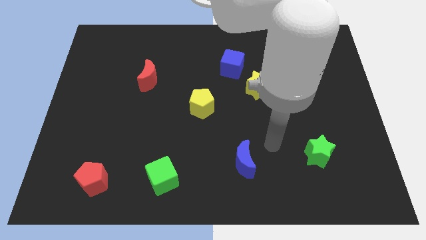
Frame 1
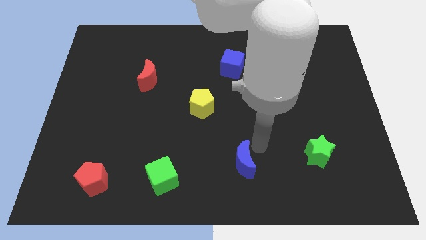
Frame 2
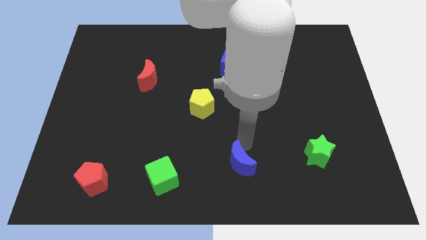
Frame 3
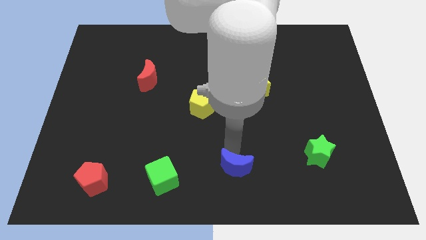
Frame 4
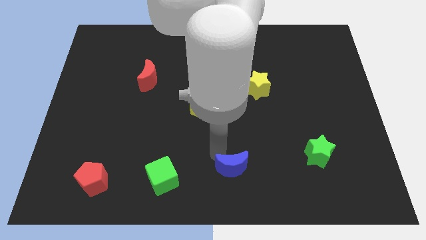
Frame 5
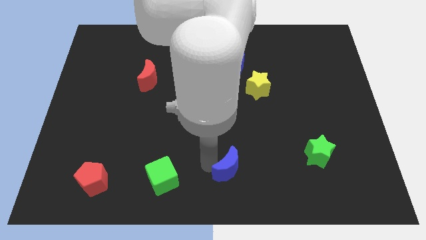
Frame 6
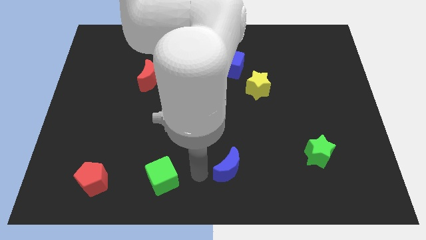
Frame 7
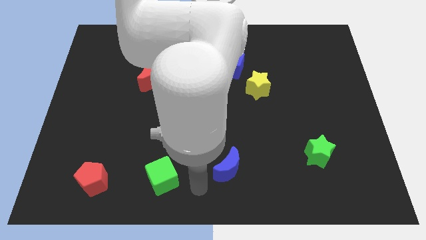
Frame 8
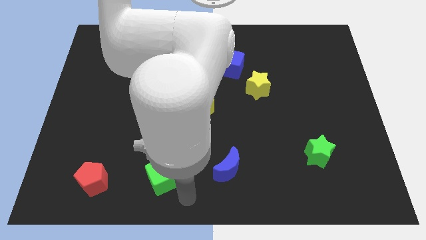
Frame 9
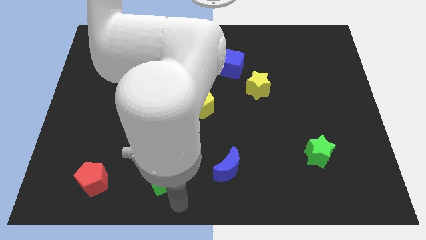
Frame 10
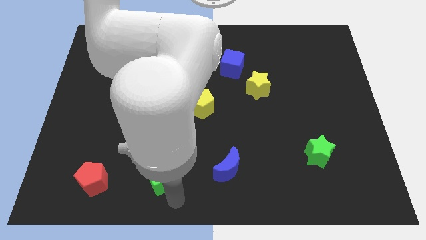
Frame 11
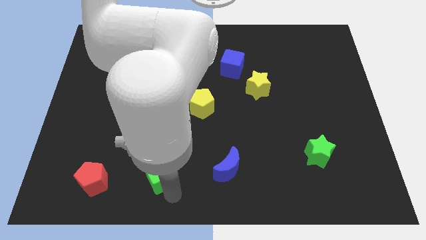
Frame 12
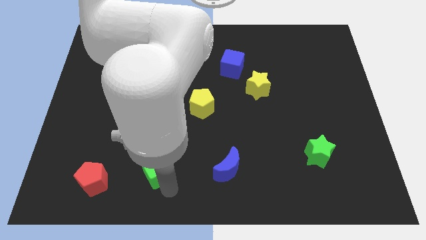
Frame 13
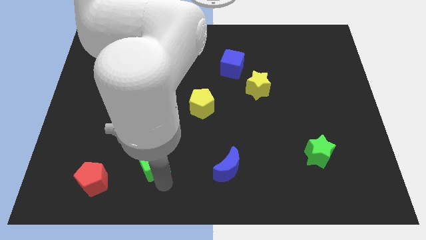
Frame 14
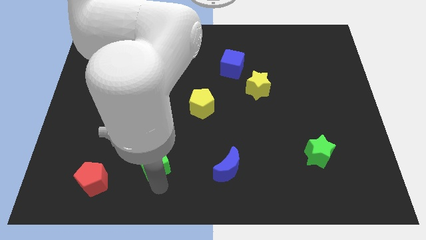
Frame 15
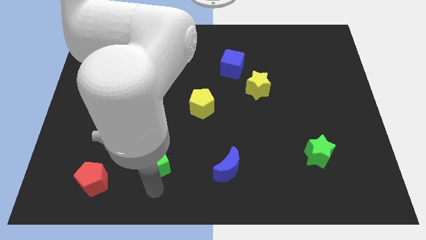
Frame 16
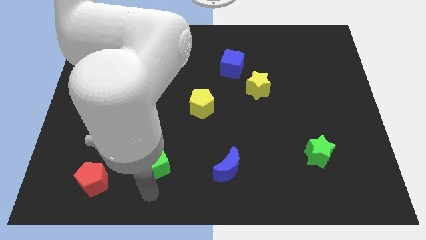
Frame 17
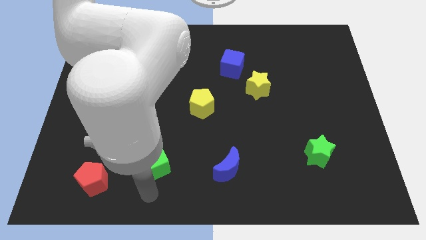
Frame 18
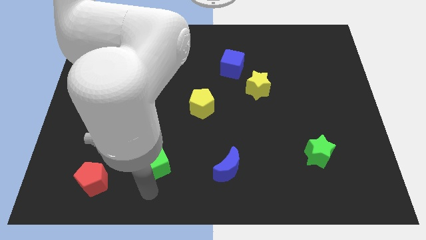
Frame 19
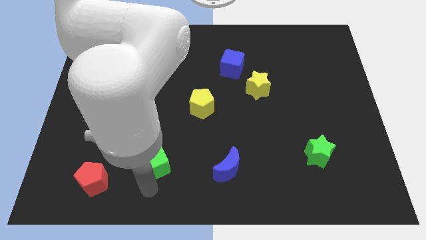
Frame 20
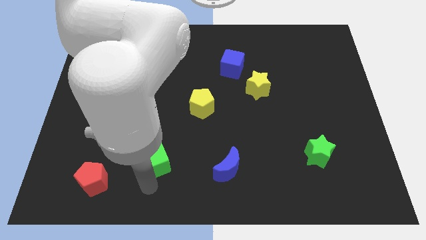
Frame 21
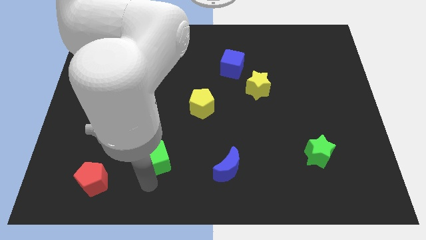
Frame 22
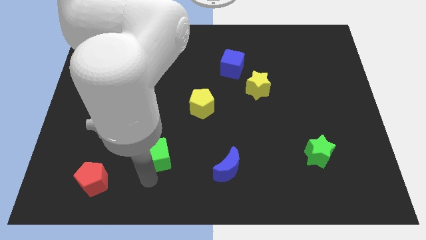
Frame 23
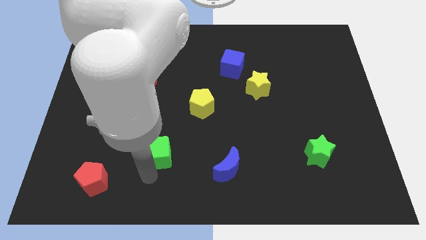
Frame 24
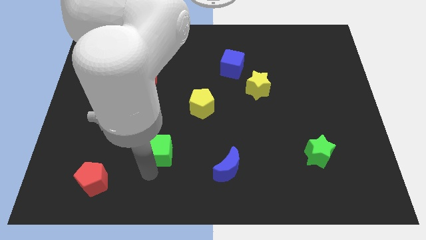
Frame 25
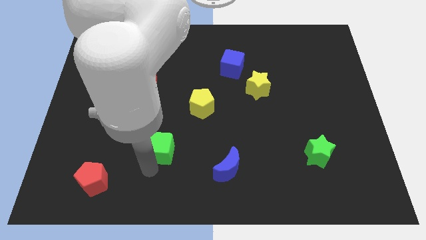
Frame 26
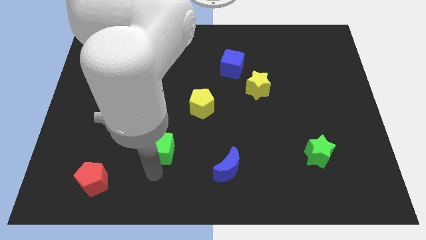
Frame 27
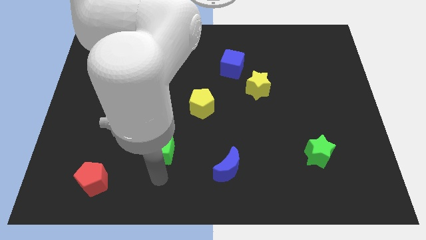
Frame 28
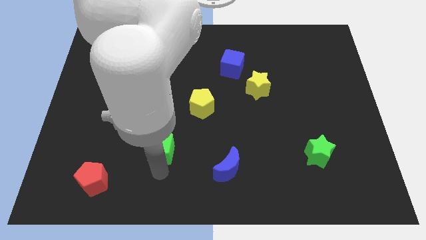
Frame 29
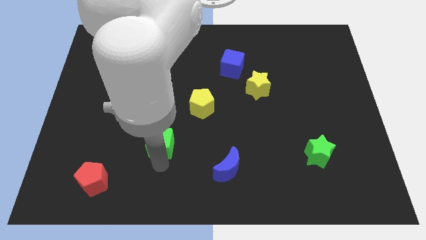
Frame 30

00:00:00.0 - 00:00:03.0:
slide the green cube slightly upwards

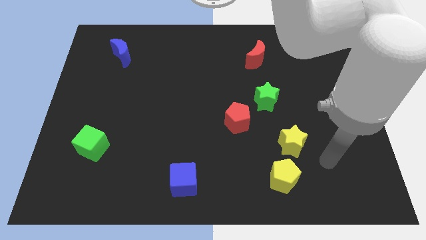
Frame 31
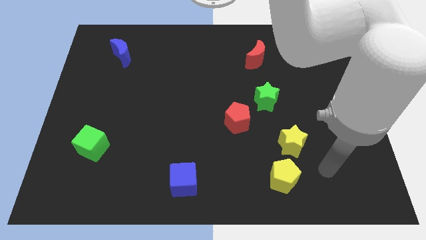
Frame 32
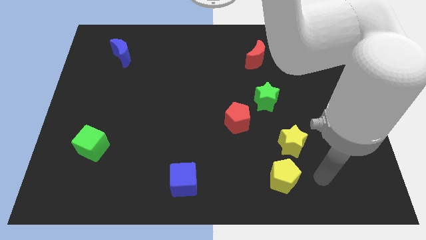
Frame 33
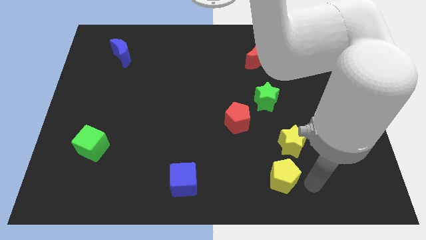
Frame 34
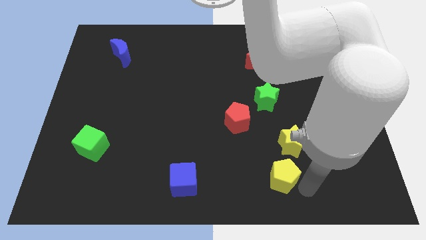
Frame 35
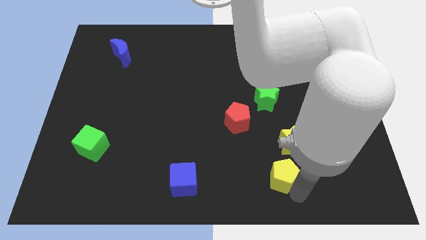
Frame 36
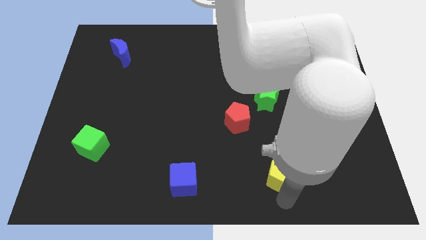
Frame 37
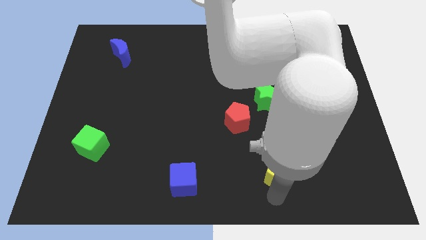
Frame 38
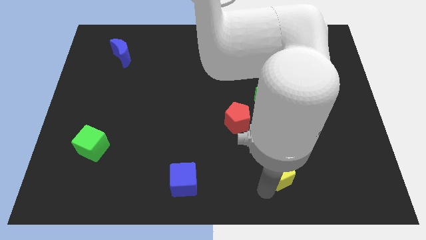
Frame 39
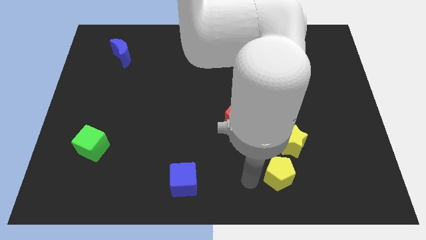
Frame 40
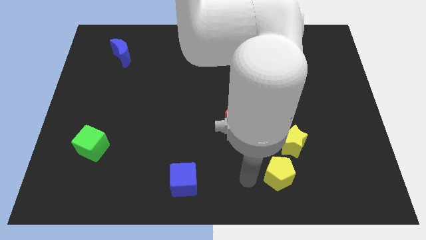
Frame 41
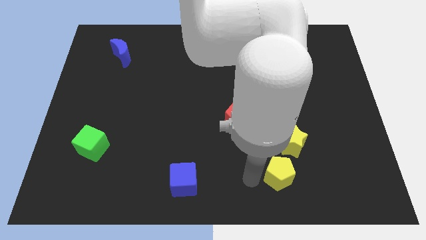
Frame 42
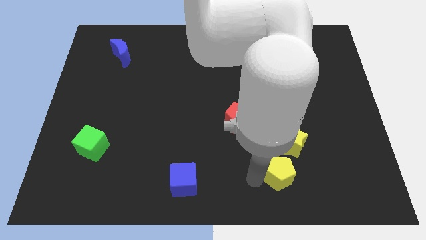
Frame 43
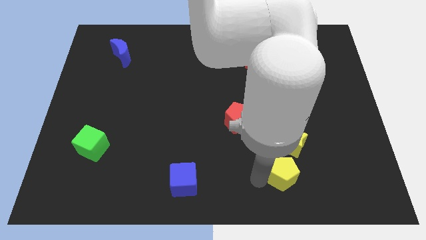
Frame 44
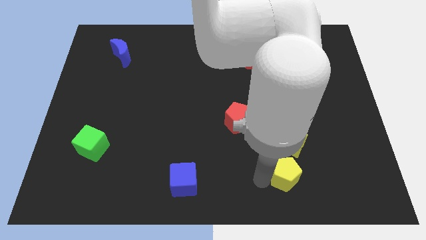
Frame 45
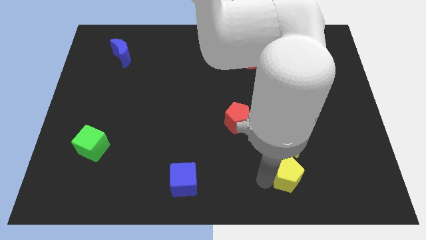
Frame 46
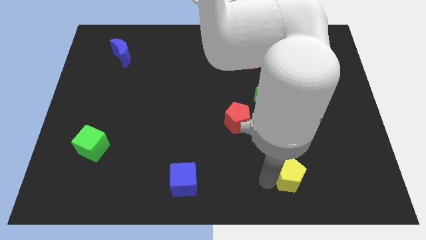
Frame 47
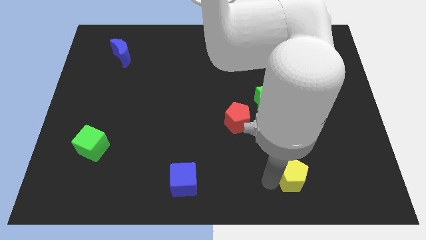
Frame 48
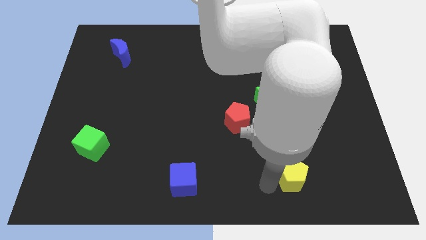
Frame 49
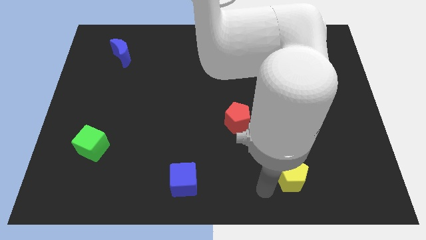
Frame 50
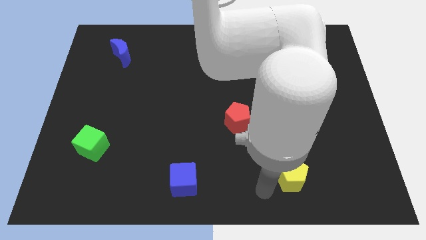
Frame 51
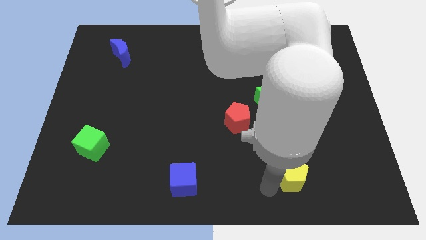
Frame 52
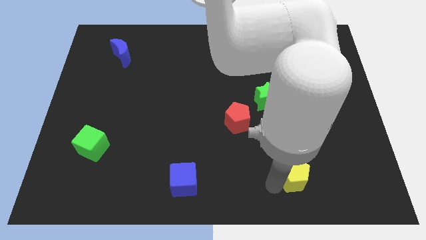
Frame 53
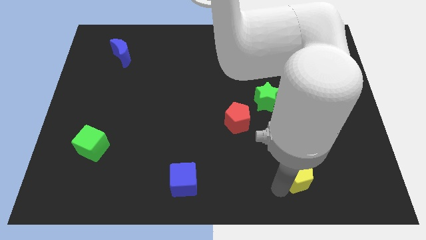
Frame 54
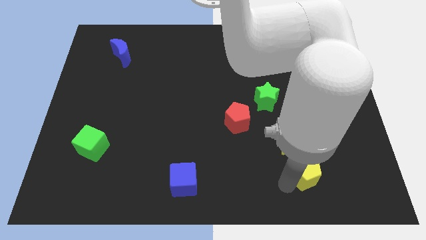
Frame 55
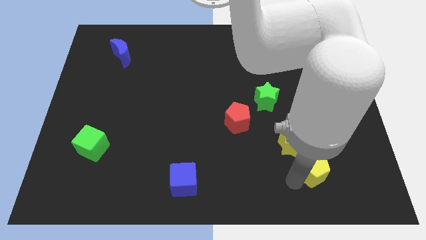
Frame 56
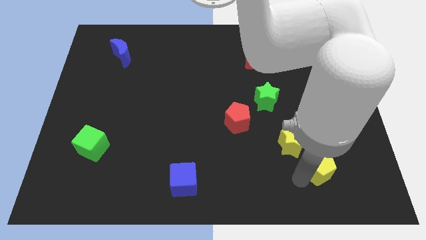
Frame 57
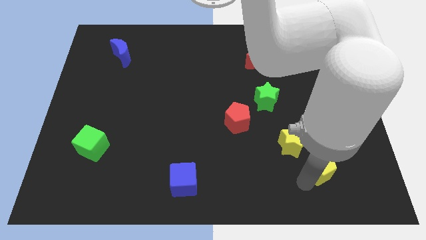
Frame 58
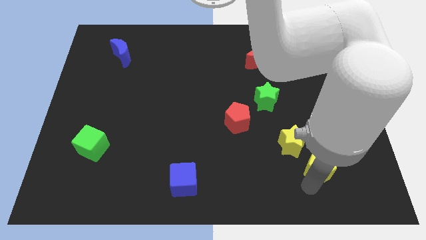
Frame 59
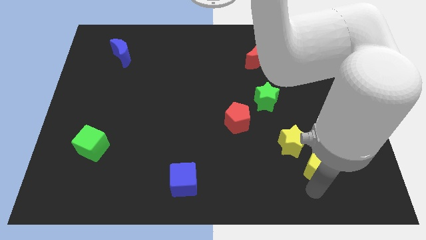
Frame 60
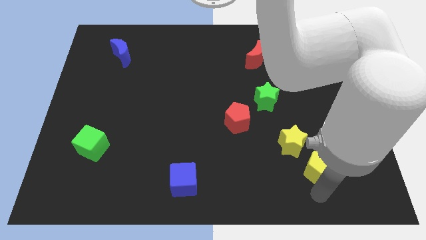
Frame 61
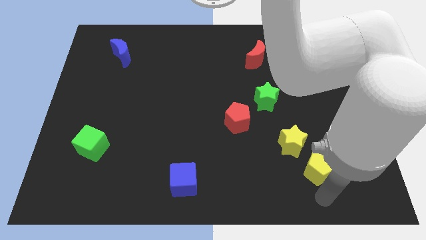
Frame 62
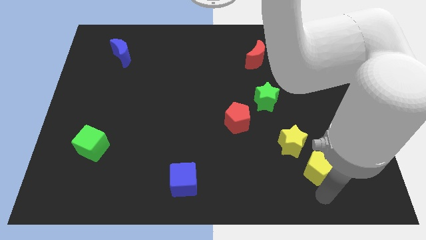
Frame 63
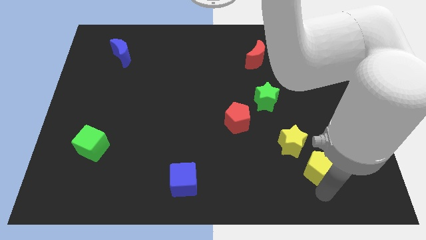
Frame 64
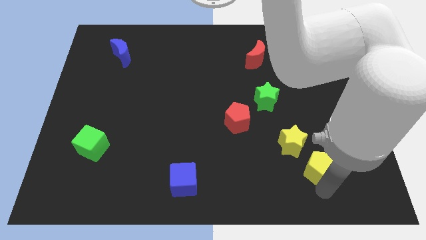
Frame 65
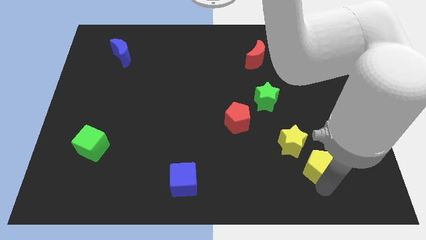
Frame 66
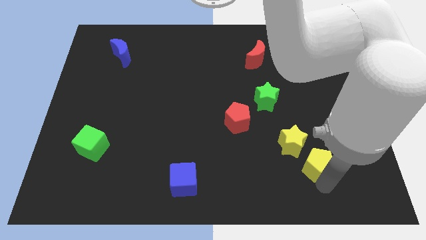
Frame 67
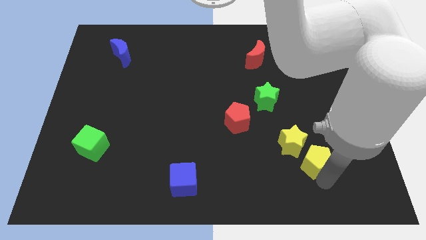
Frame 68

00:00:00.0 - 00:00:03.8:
slightly move the yellow pentagon up and then right

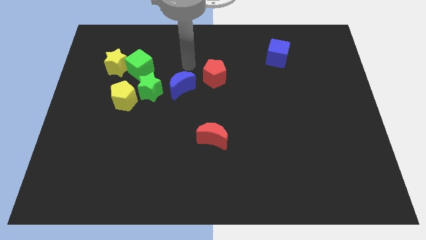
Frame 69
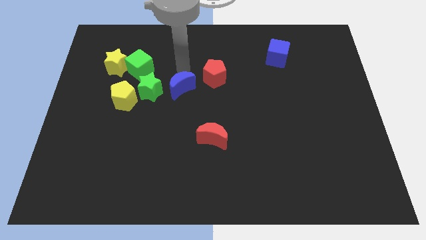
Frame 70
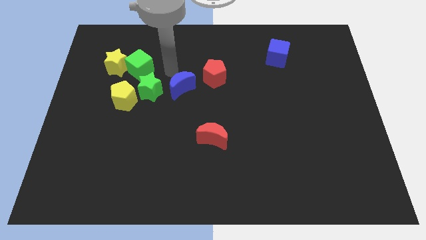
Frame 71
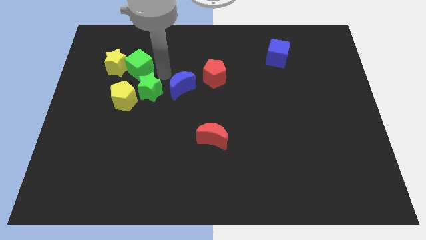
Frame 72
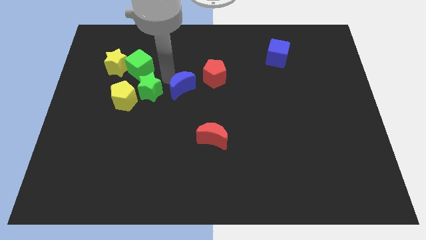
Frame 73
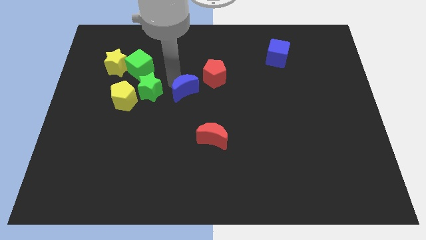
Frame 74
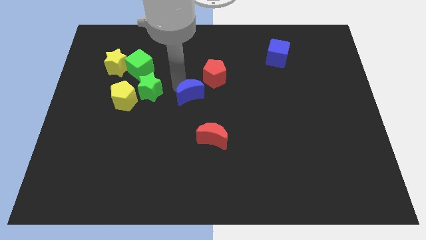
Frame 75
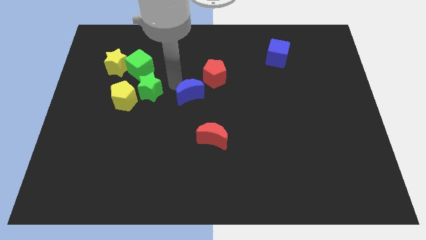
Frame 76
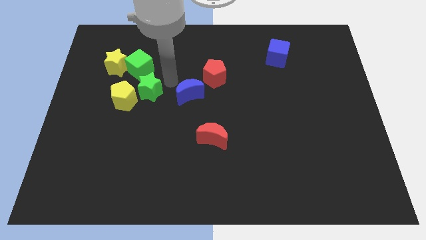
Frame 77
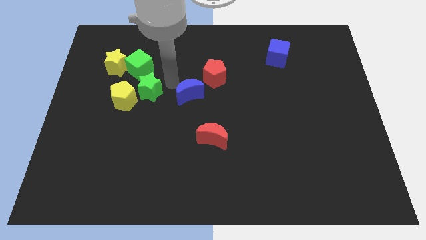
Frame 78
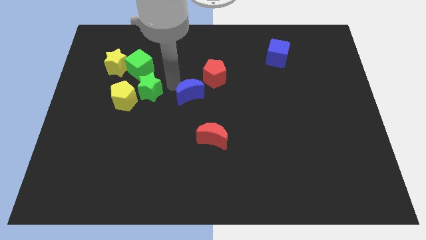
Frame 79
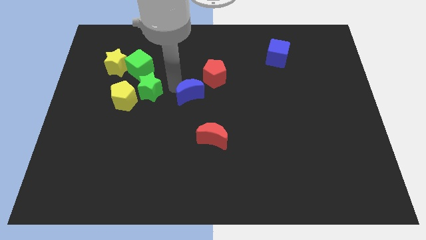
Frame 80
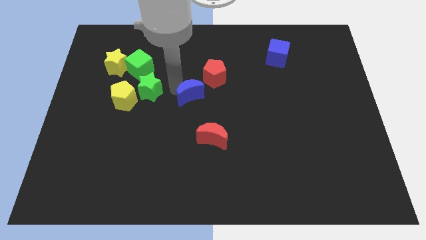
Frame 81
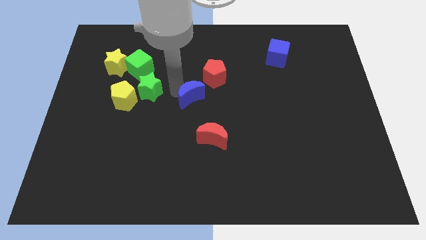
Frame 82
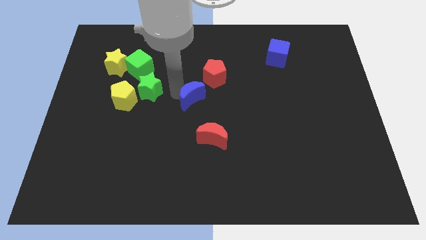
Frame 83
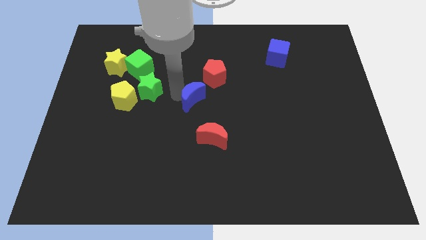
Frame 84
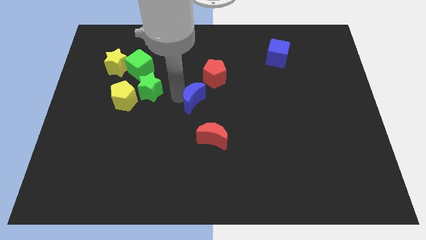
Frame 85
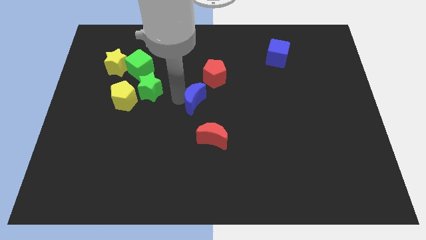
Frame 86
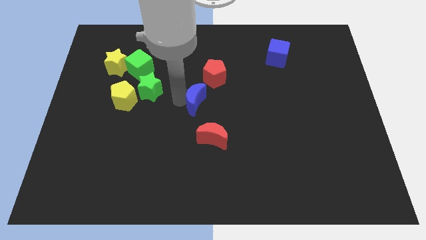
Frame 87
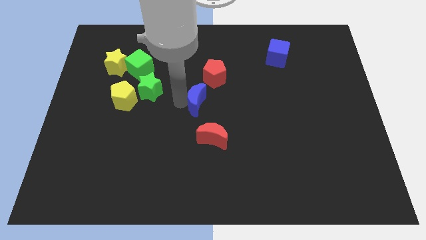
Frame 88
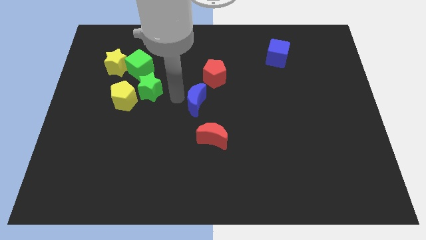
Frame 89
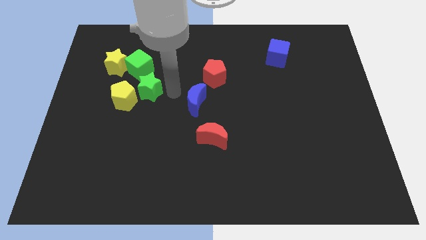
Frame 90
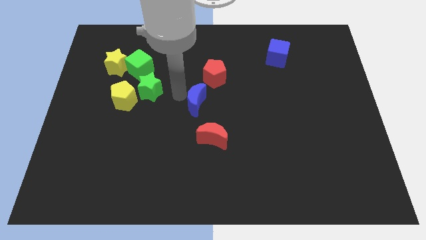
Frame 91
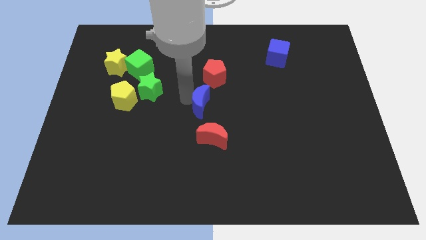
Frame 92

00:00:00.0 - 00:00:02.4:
slide the blue moon a bit downwards and right diagonally
